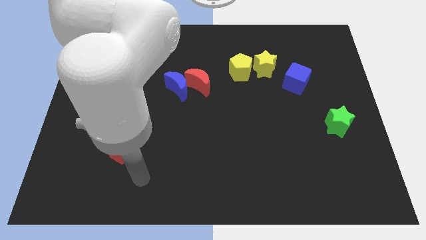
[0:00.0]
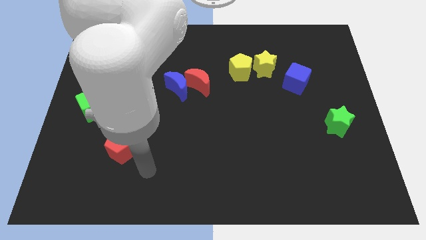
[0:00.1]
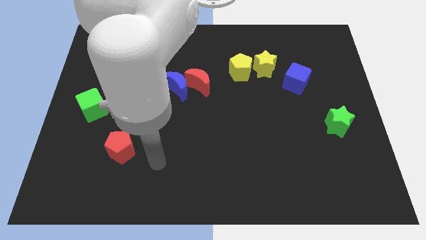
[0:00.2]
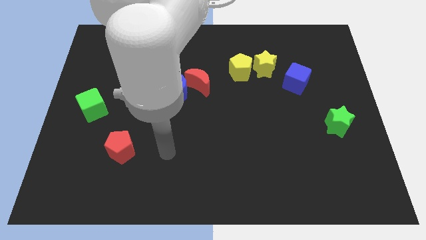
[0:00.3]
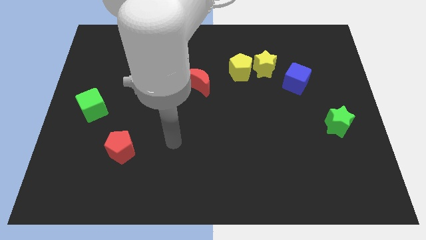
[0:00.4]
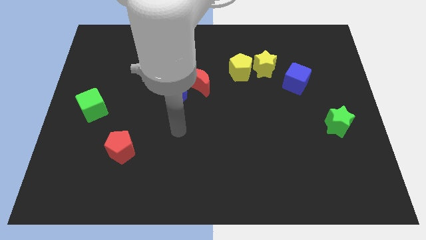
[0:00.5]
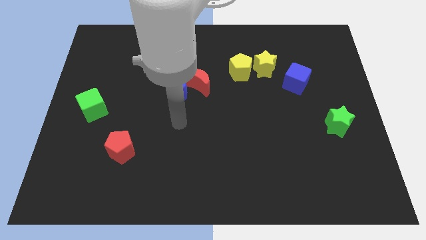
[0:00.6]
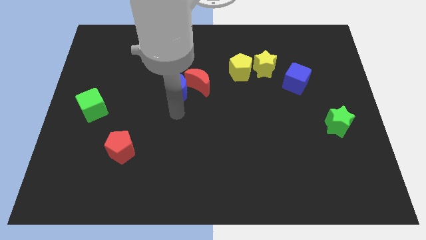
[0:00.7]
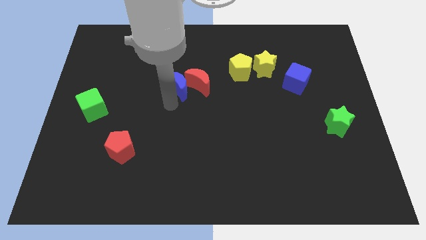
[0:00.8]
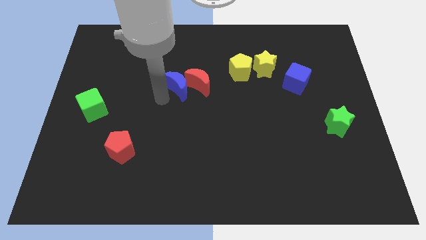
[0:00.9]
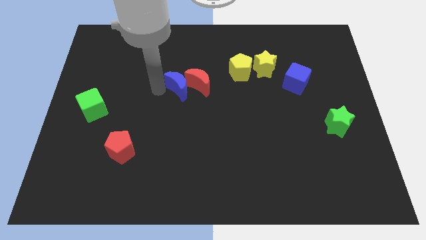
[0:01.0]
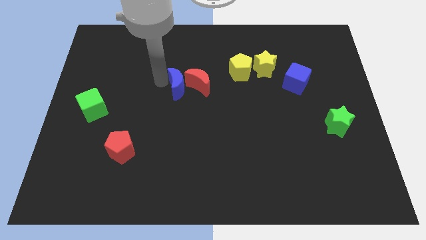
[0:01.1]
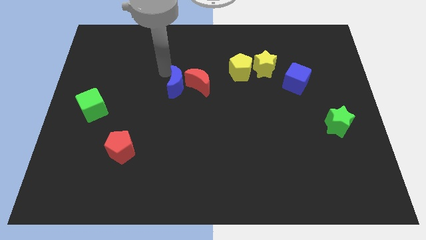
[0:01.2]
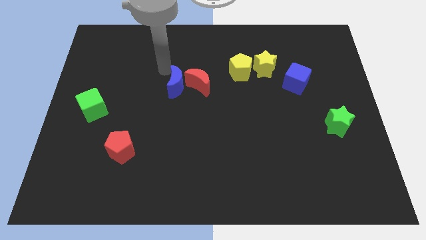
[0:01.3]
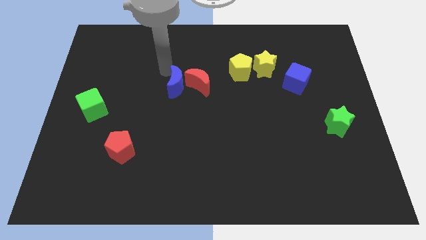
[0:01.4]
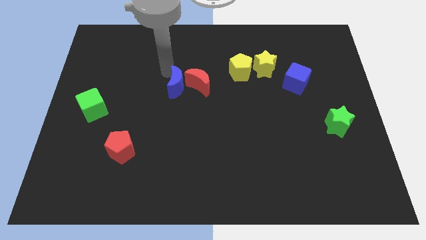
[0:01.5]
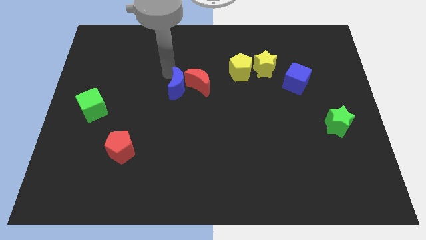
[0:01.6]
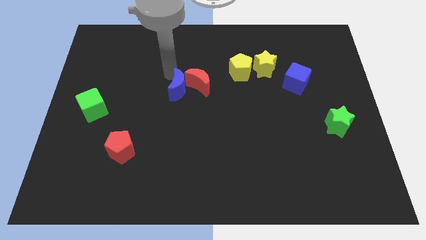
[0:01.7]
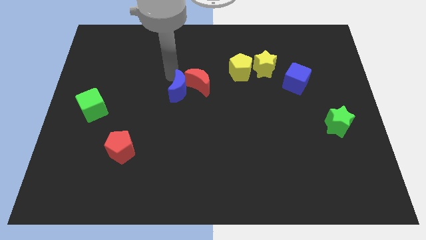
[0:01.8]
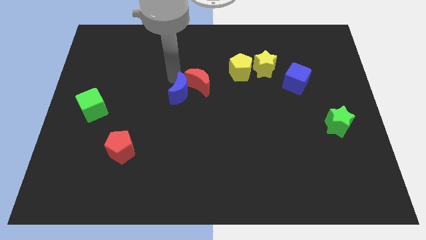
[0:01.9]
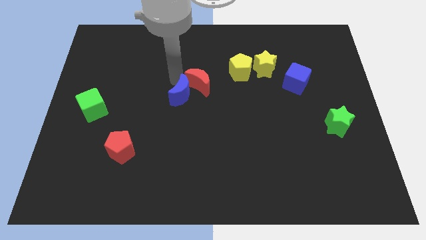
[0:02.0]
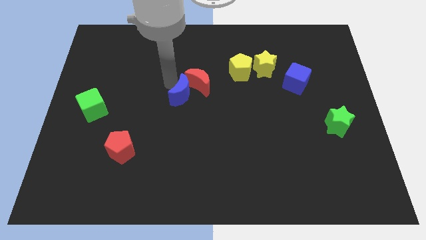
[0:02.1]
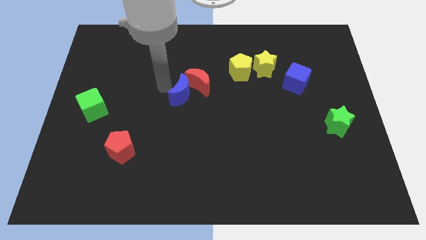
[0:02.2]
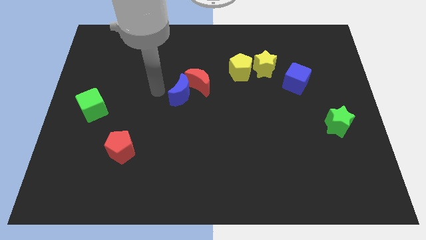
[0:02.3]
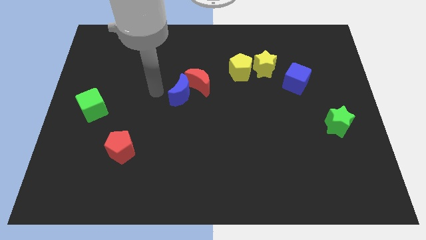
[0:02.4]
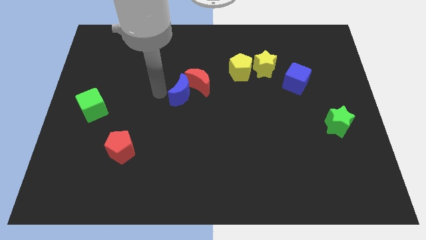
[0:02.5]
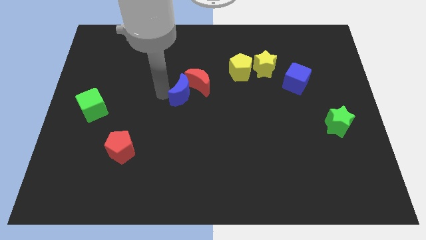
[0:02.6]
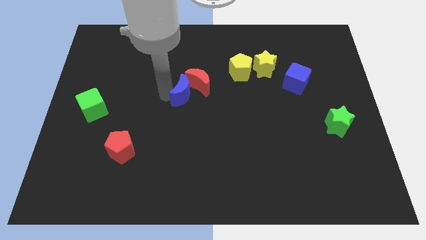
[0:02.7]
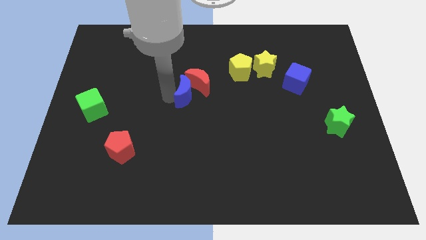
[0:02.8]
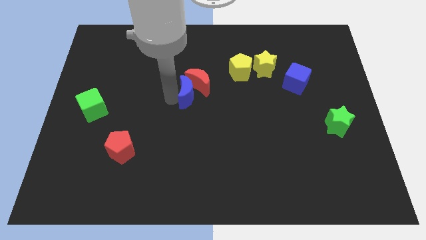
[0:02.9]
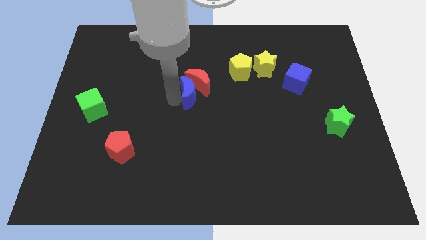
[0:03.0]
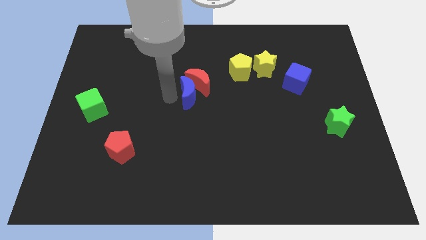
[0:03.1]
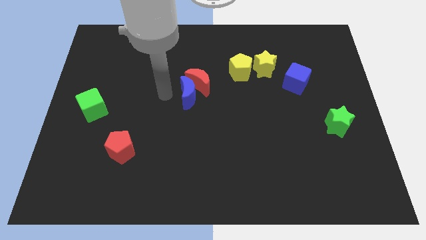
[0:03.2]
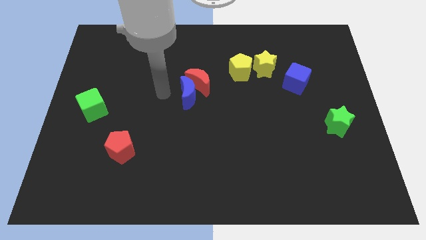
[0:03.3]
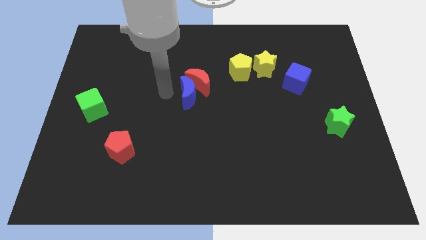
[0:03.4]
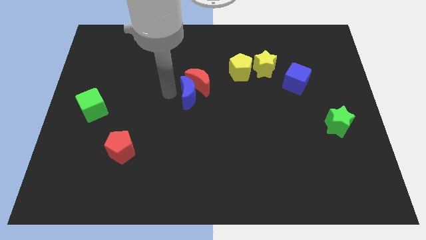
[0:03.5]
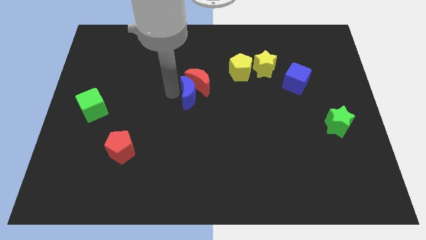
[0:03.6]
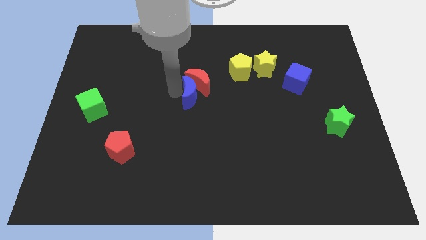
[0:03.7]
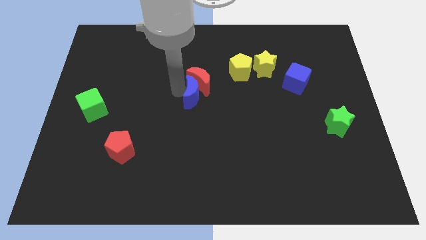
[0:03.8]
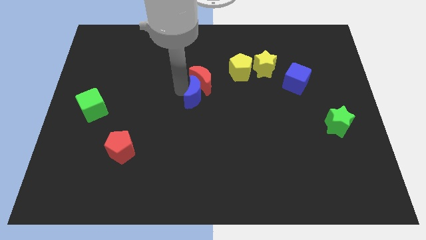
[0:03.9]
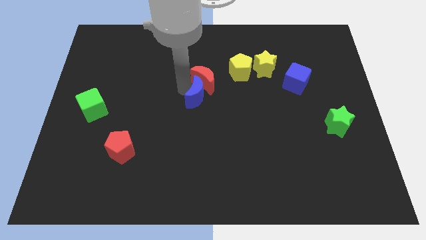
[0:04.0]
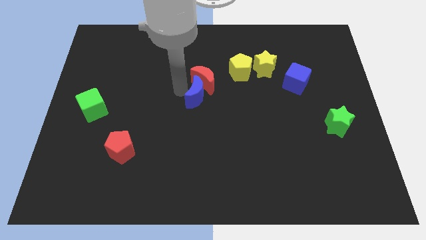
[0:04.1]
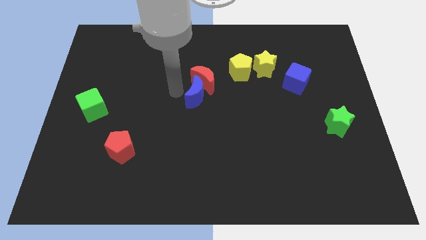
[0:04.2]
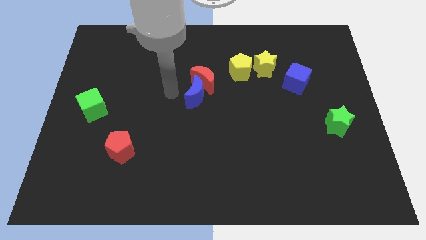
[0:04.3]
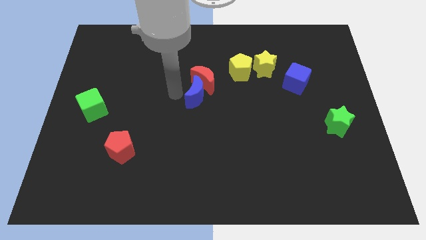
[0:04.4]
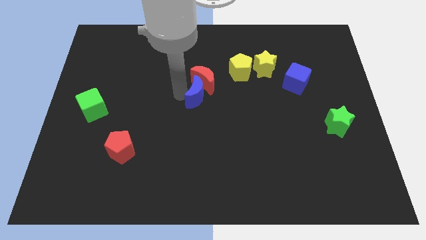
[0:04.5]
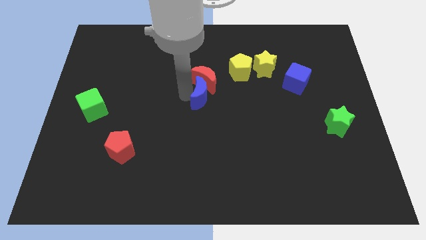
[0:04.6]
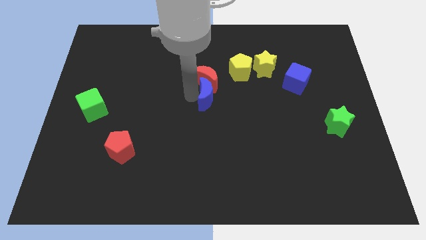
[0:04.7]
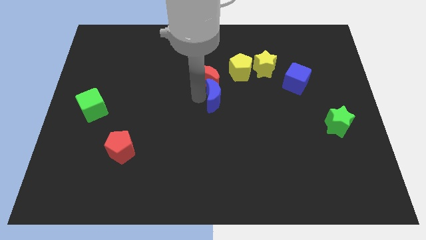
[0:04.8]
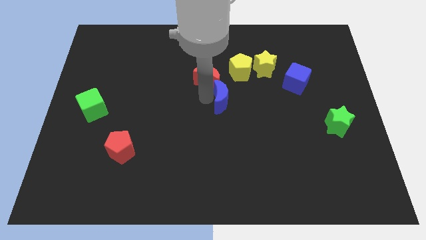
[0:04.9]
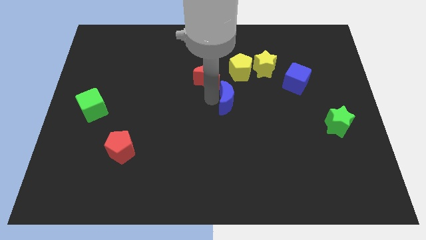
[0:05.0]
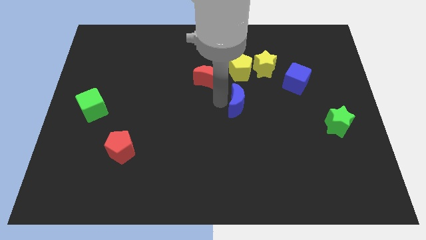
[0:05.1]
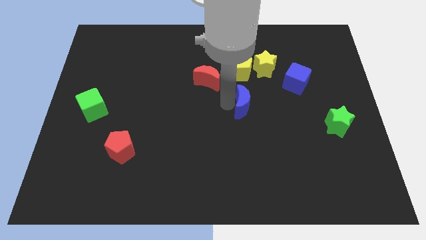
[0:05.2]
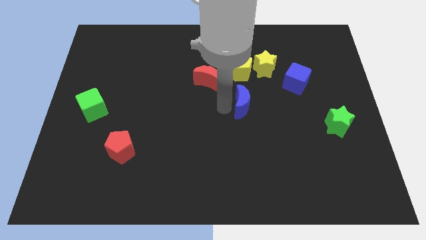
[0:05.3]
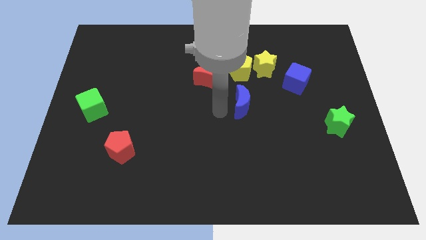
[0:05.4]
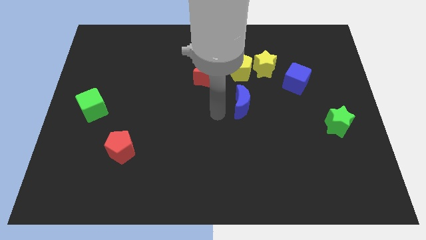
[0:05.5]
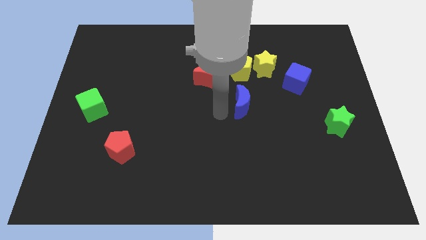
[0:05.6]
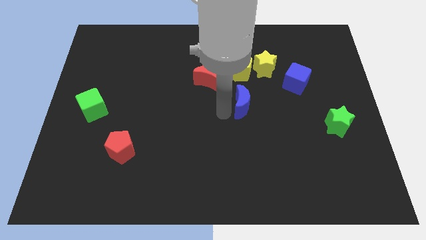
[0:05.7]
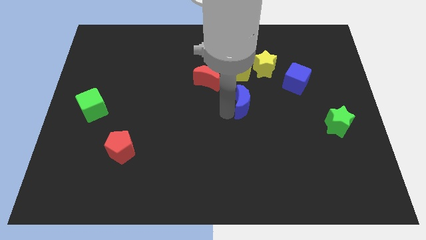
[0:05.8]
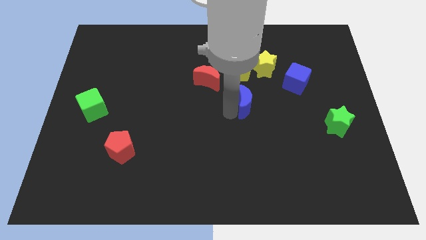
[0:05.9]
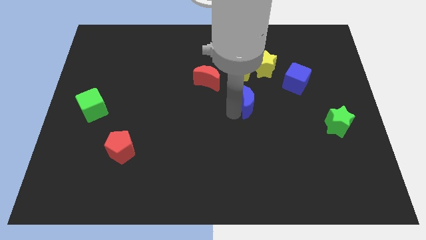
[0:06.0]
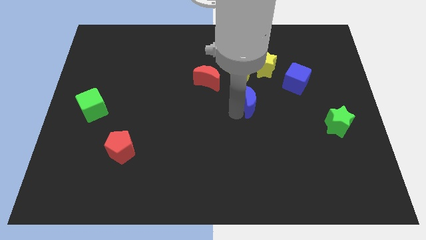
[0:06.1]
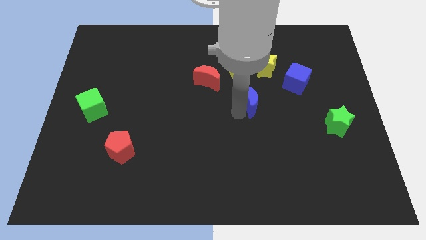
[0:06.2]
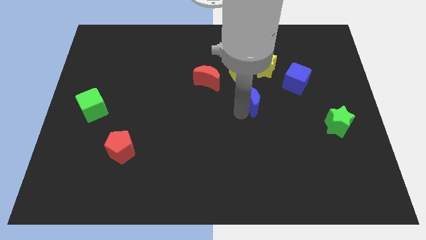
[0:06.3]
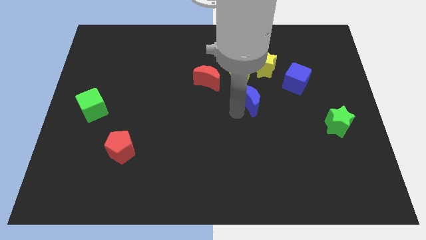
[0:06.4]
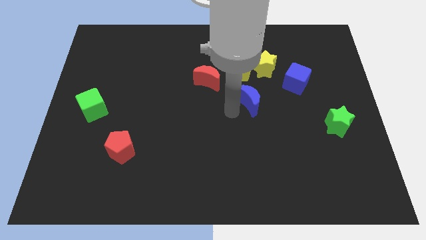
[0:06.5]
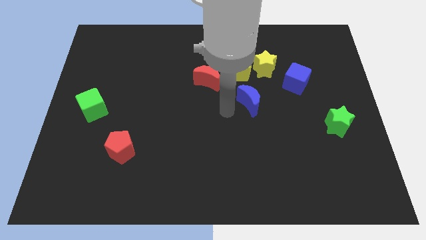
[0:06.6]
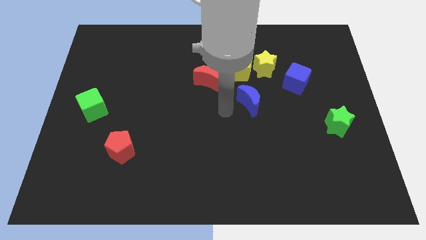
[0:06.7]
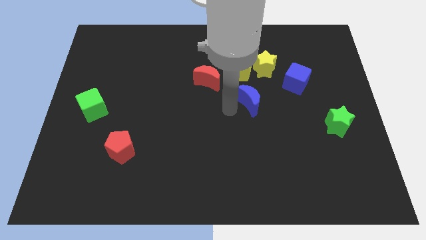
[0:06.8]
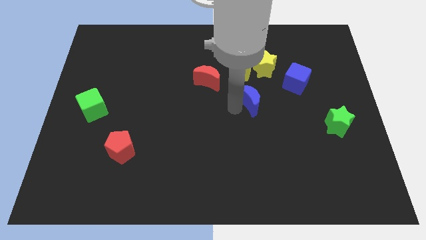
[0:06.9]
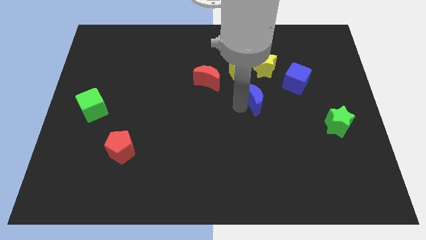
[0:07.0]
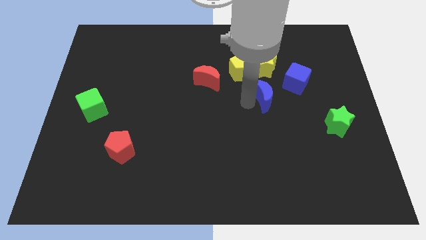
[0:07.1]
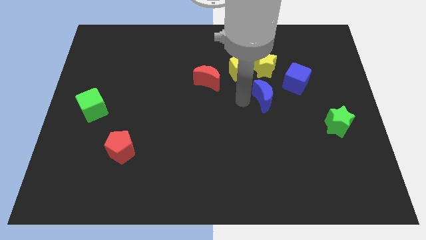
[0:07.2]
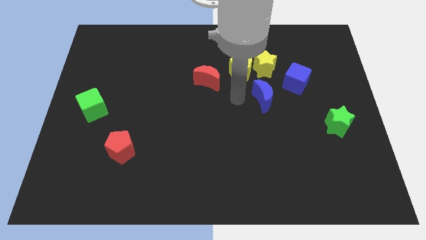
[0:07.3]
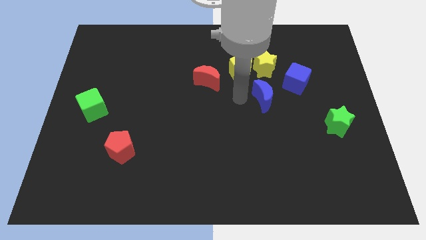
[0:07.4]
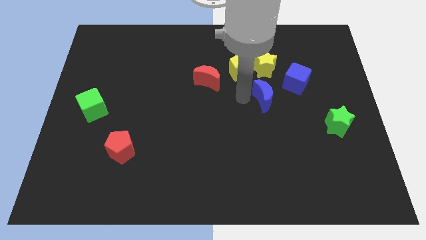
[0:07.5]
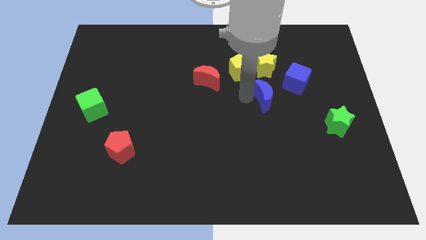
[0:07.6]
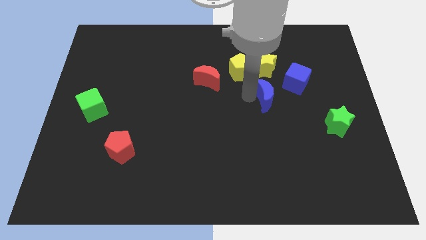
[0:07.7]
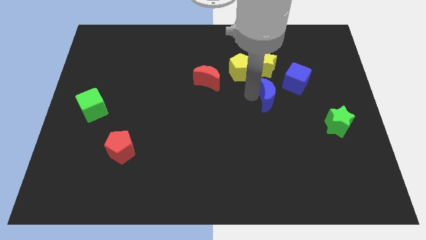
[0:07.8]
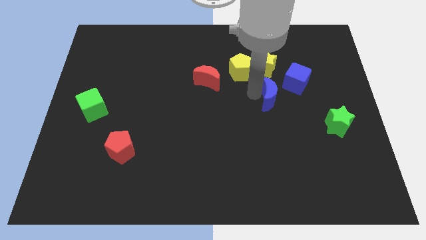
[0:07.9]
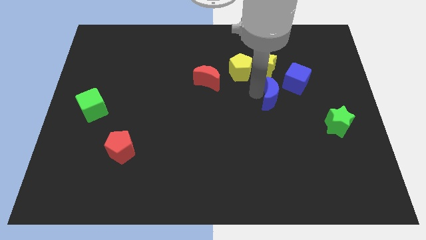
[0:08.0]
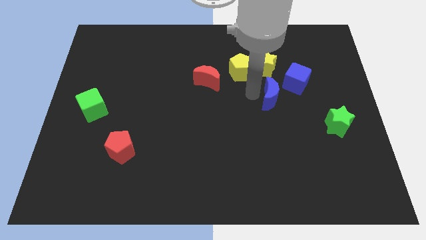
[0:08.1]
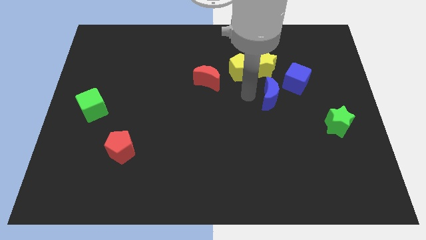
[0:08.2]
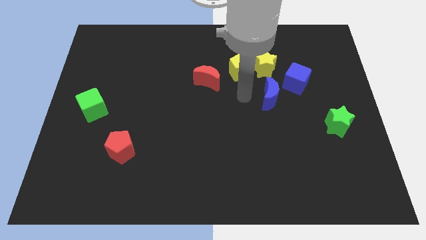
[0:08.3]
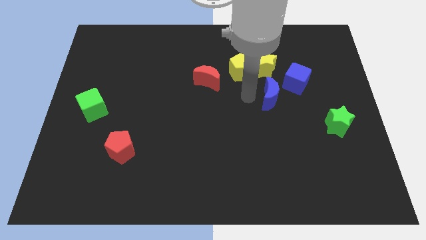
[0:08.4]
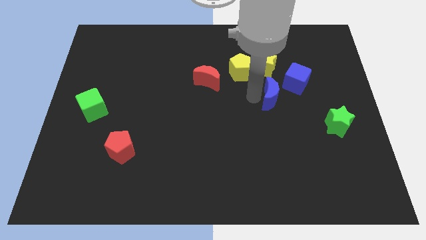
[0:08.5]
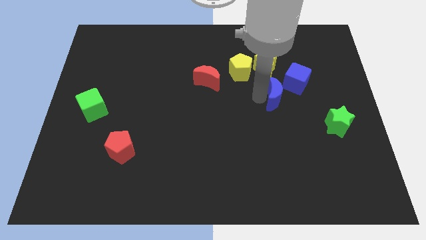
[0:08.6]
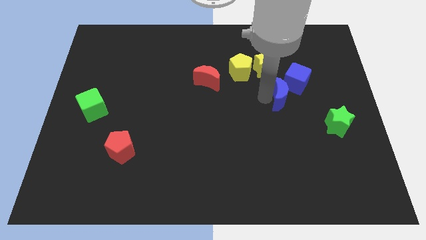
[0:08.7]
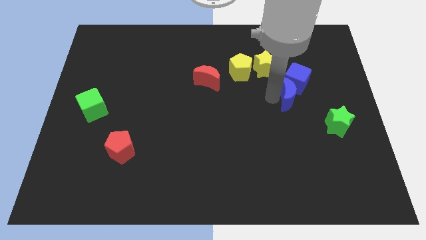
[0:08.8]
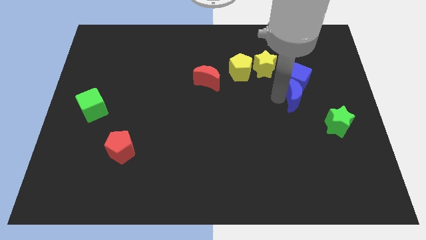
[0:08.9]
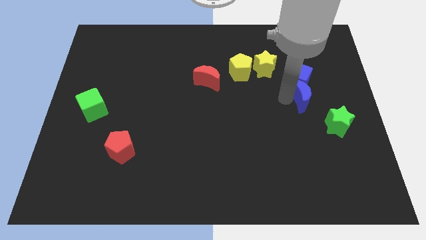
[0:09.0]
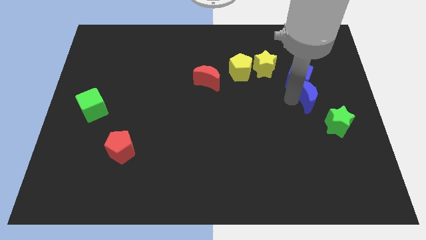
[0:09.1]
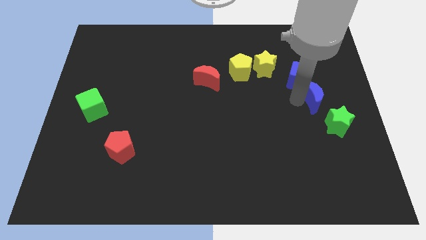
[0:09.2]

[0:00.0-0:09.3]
move the blue moon to the top side of the green star
